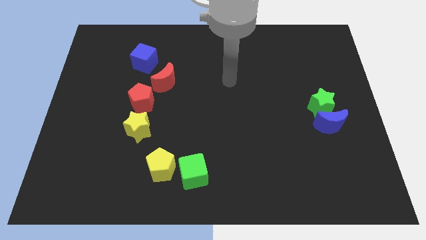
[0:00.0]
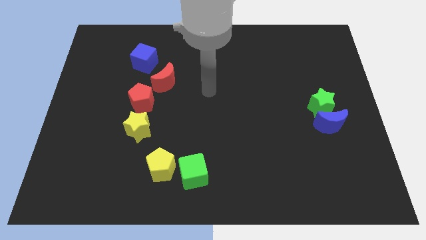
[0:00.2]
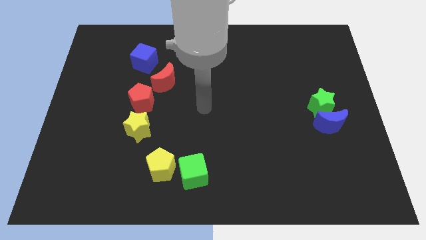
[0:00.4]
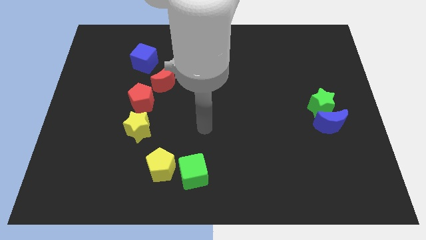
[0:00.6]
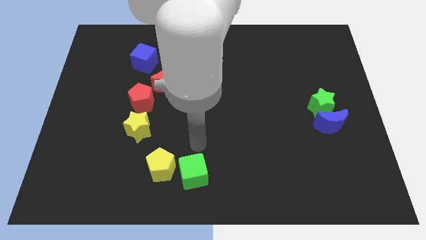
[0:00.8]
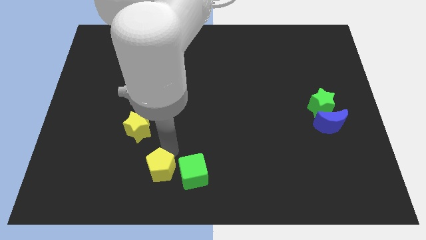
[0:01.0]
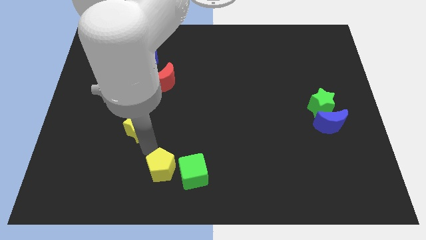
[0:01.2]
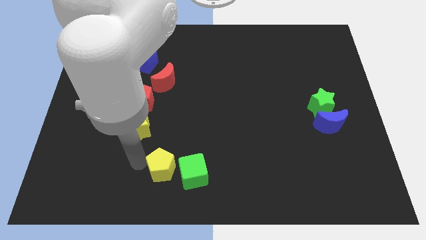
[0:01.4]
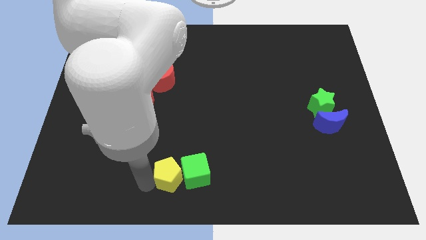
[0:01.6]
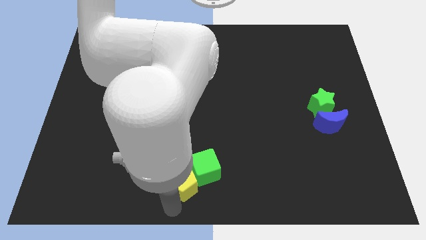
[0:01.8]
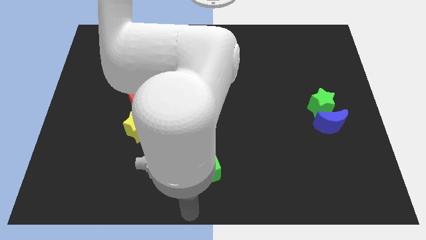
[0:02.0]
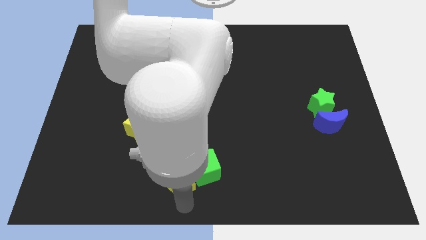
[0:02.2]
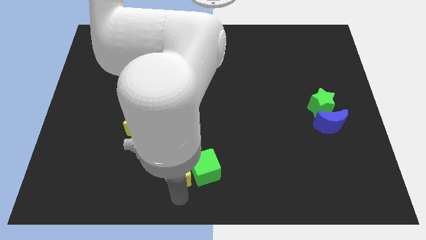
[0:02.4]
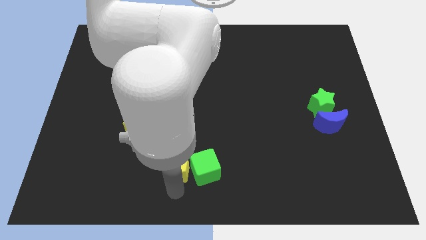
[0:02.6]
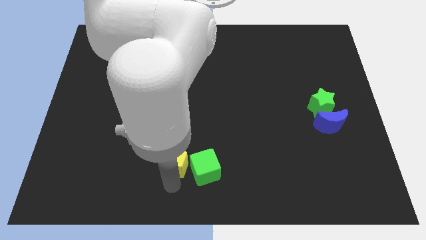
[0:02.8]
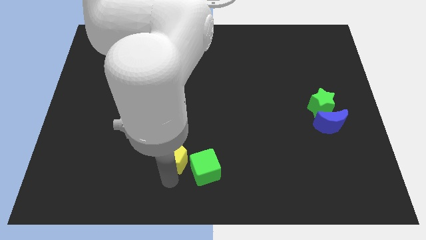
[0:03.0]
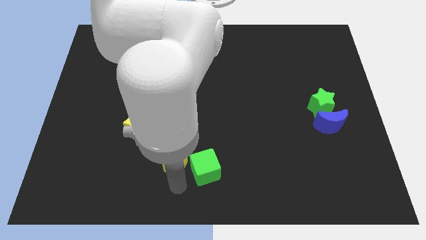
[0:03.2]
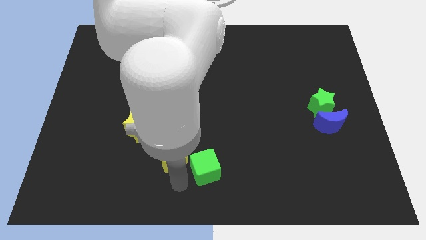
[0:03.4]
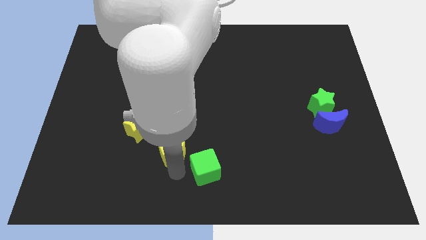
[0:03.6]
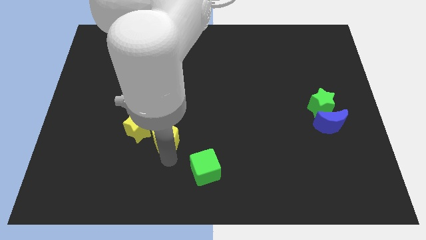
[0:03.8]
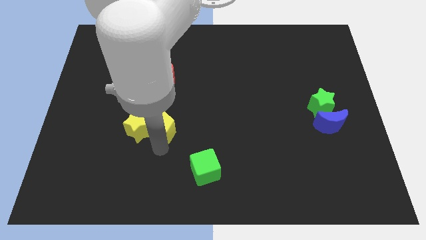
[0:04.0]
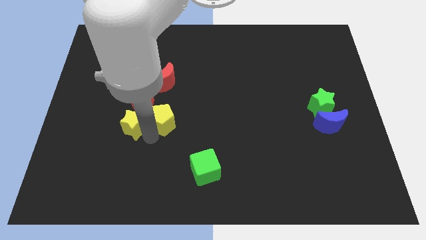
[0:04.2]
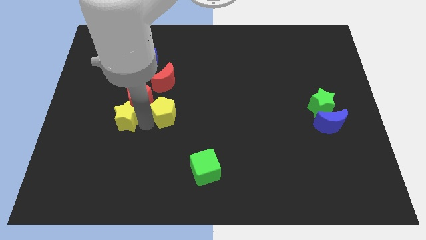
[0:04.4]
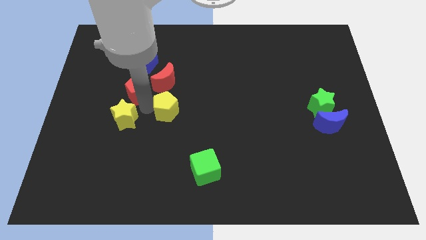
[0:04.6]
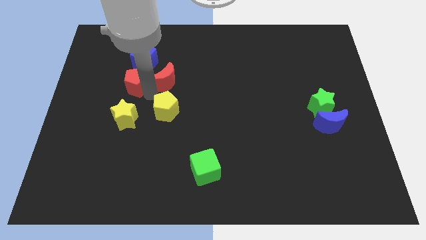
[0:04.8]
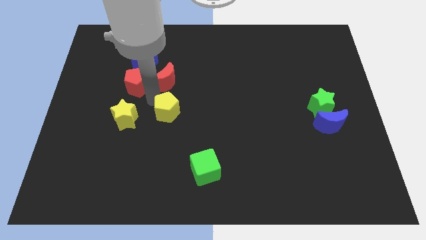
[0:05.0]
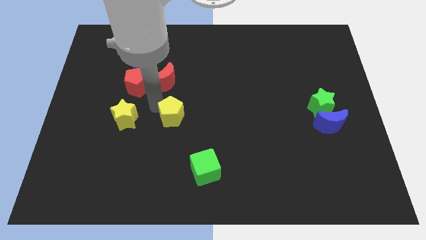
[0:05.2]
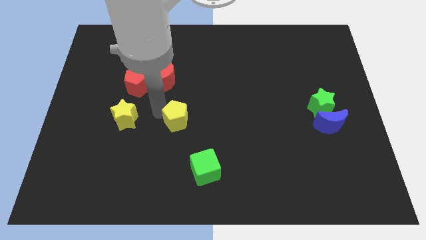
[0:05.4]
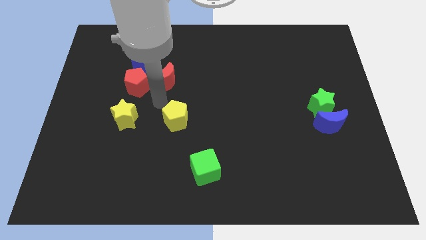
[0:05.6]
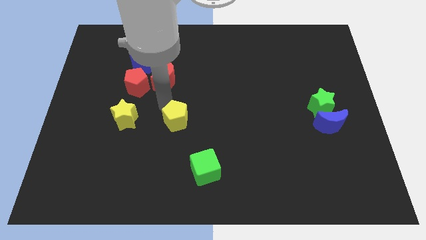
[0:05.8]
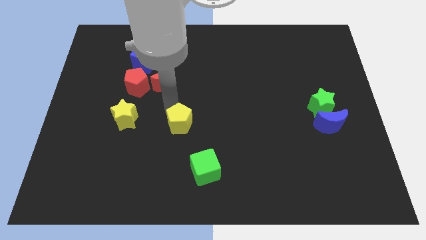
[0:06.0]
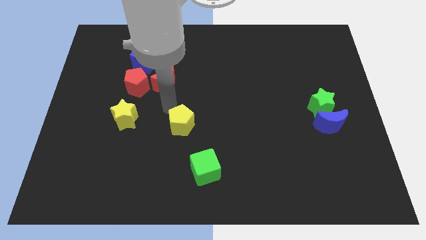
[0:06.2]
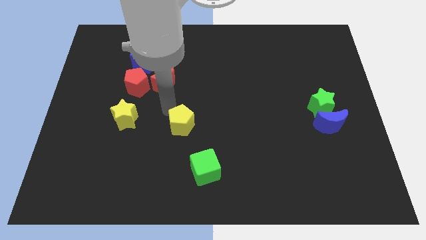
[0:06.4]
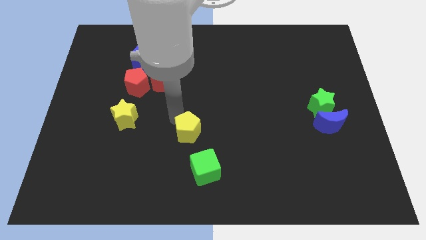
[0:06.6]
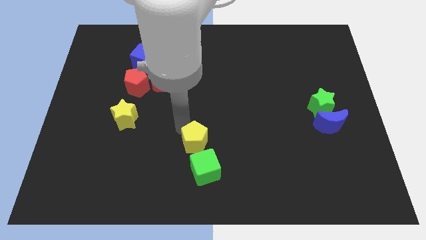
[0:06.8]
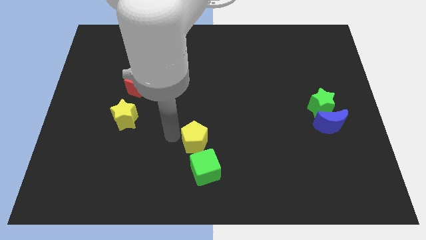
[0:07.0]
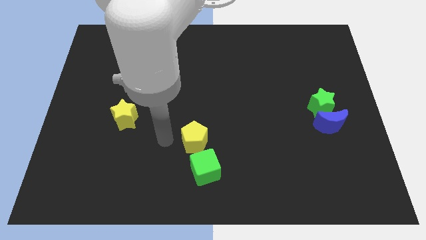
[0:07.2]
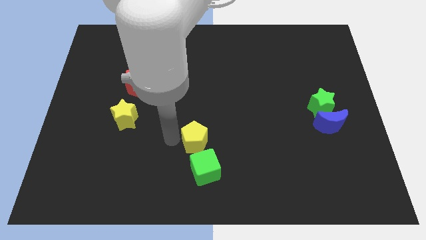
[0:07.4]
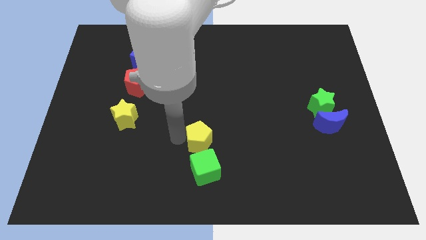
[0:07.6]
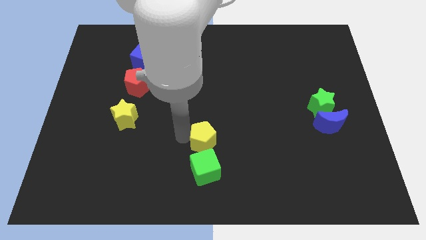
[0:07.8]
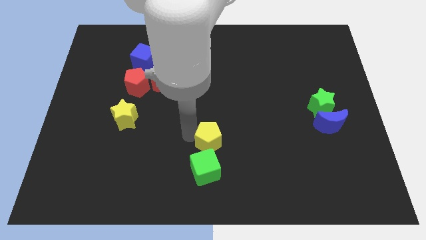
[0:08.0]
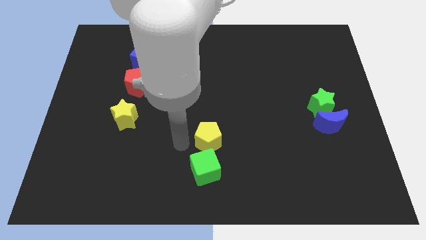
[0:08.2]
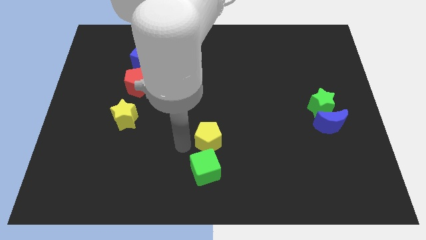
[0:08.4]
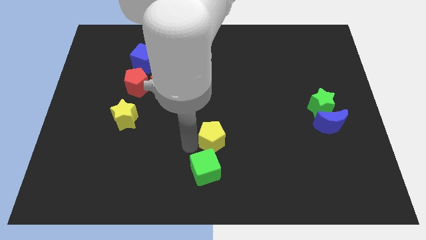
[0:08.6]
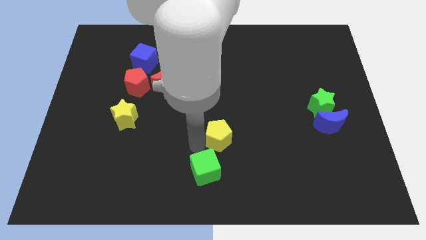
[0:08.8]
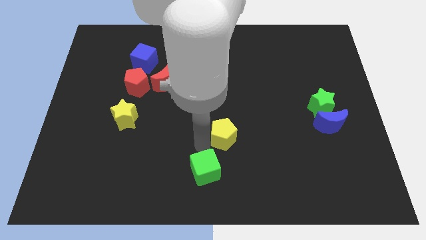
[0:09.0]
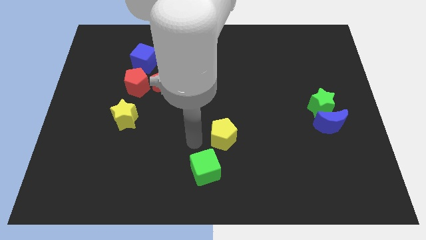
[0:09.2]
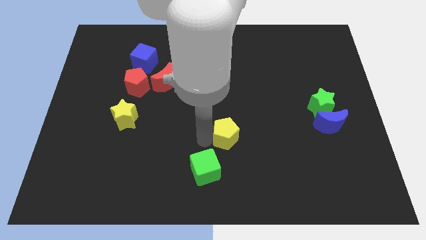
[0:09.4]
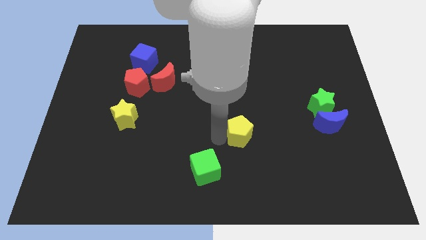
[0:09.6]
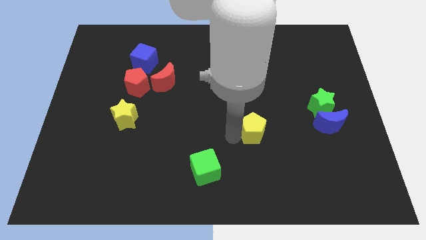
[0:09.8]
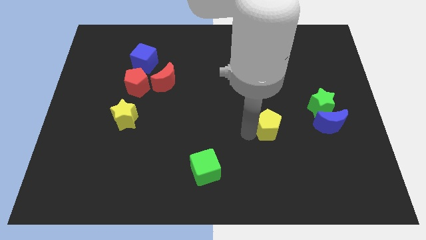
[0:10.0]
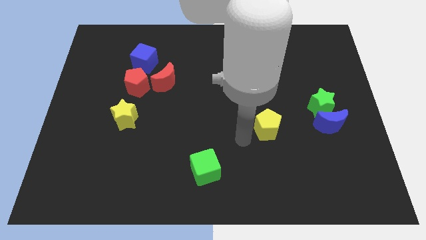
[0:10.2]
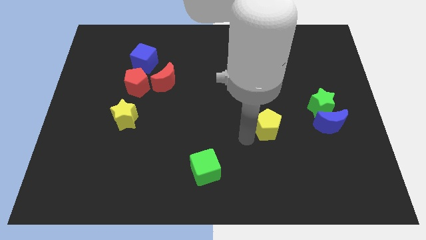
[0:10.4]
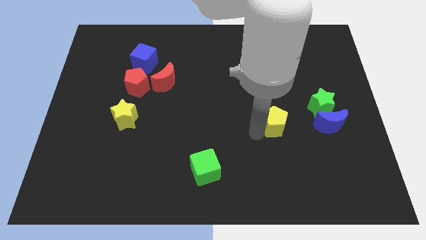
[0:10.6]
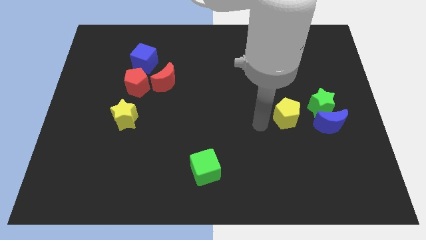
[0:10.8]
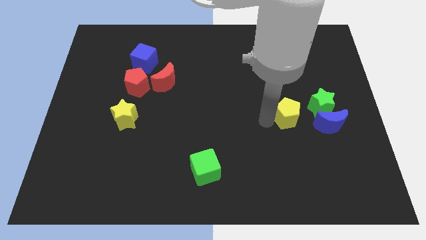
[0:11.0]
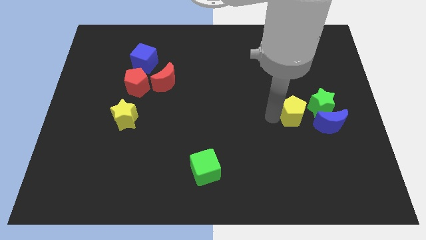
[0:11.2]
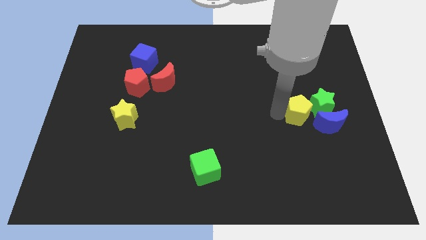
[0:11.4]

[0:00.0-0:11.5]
push the yellow pentagon to the green star

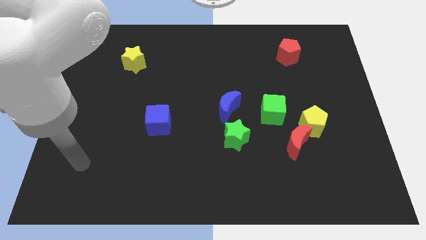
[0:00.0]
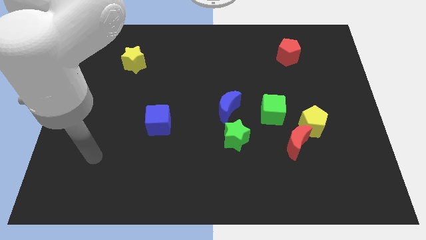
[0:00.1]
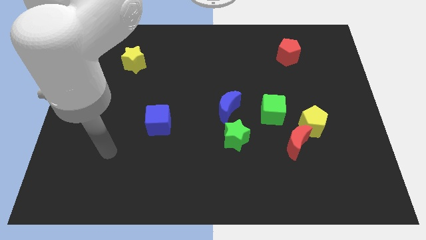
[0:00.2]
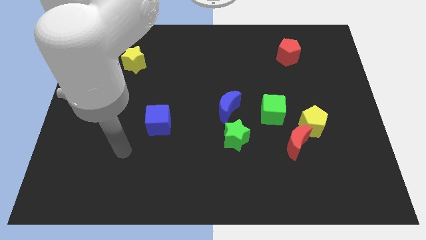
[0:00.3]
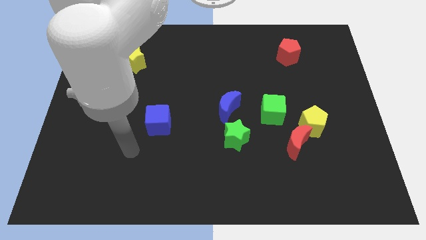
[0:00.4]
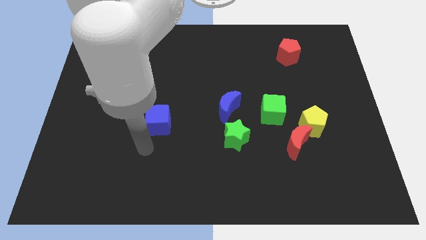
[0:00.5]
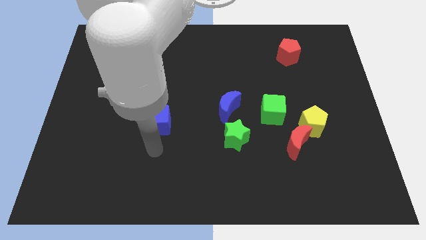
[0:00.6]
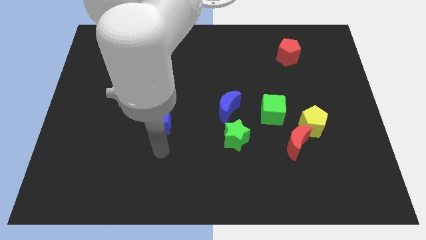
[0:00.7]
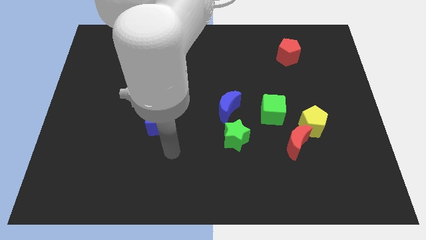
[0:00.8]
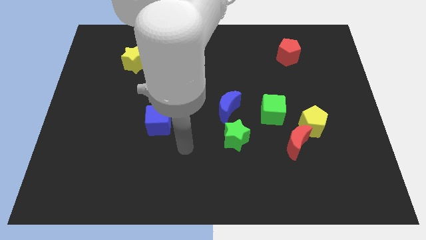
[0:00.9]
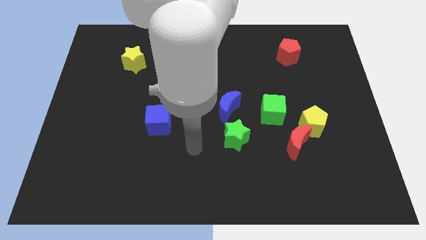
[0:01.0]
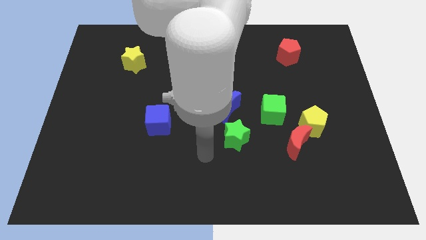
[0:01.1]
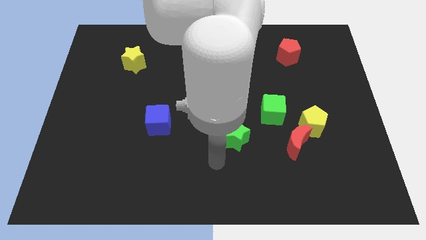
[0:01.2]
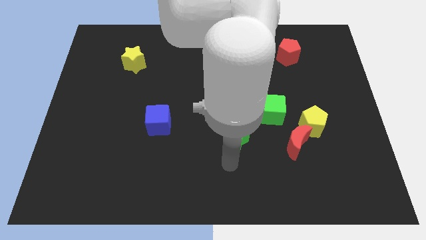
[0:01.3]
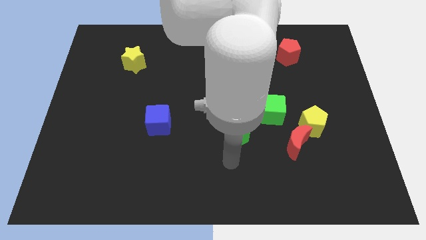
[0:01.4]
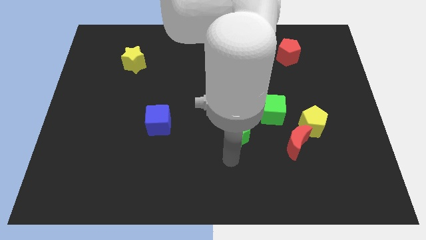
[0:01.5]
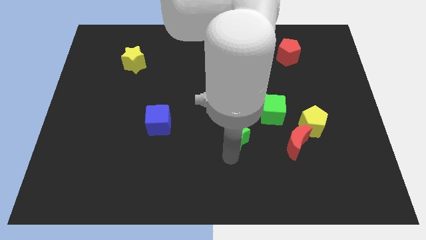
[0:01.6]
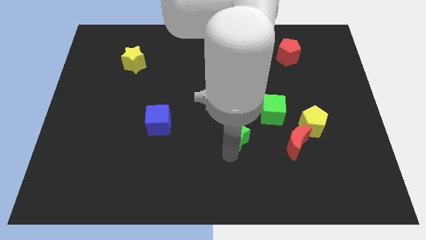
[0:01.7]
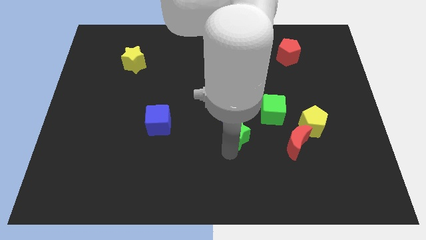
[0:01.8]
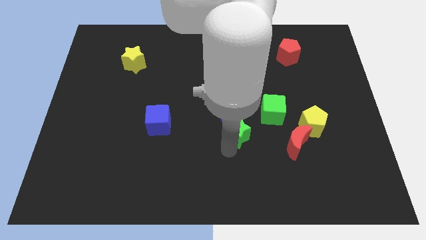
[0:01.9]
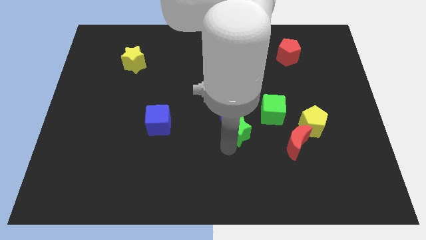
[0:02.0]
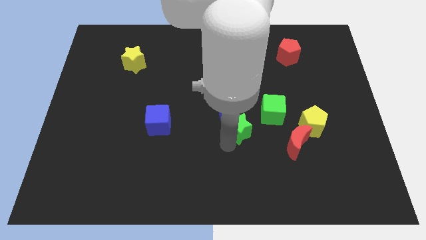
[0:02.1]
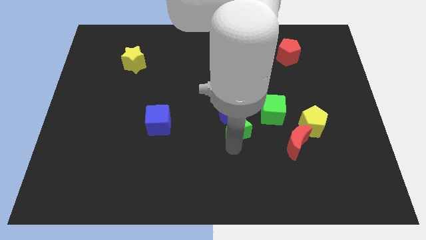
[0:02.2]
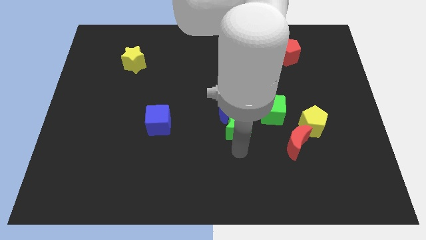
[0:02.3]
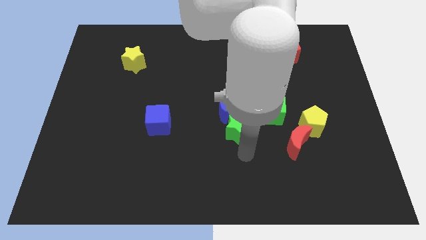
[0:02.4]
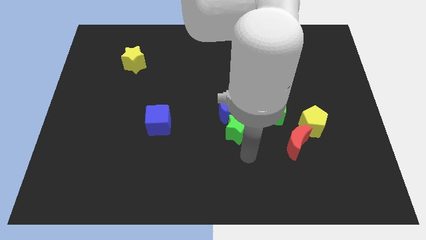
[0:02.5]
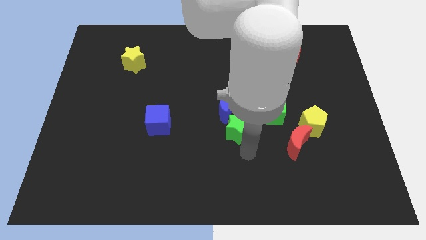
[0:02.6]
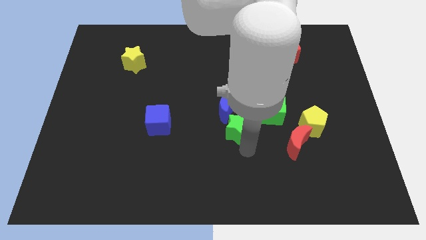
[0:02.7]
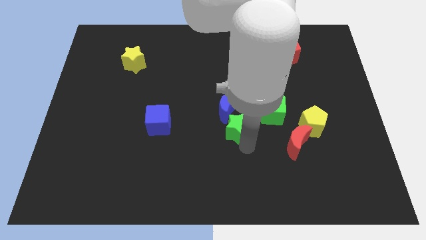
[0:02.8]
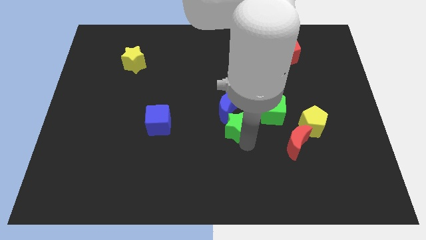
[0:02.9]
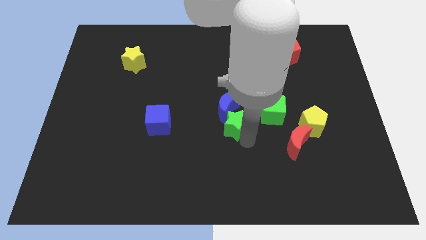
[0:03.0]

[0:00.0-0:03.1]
move the green star to the blue moon
